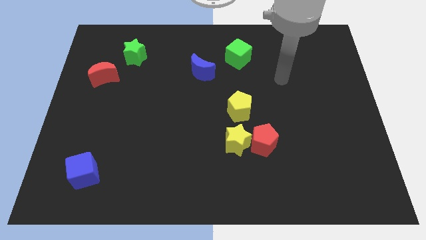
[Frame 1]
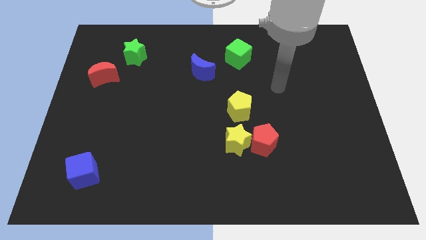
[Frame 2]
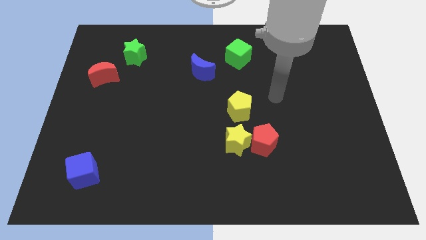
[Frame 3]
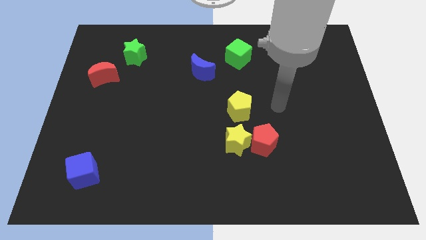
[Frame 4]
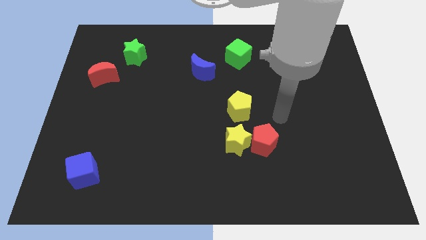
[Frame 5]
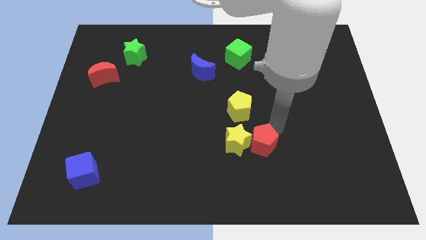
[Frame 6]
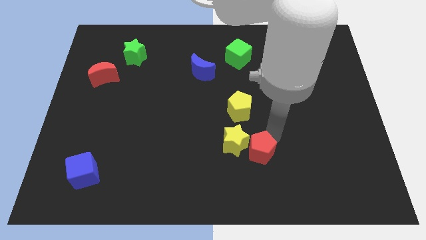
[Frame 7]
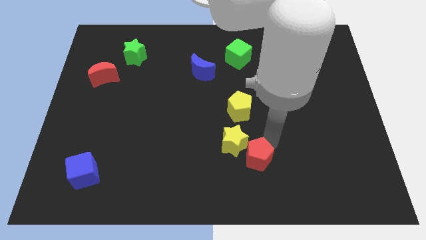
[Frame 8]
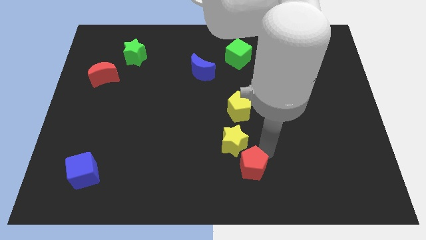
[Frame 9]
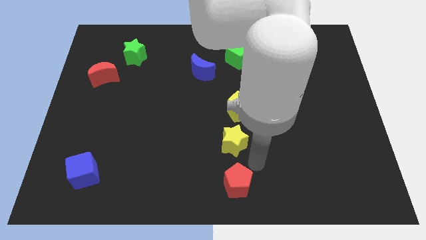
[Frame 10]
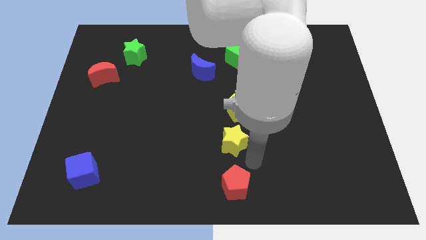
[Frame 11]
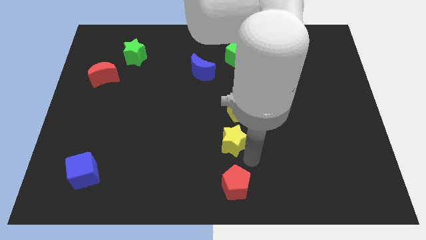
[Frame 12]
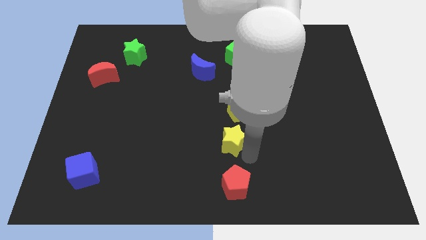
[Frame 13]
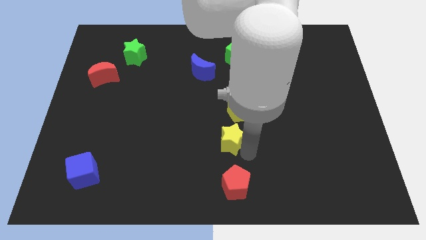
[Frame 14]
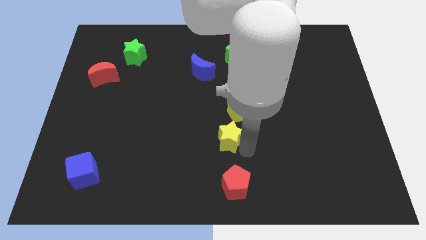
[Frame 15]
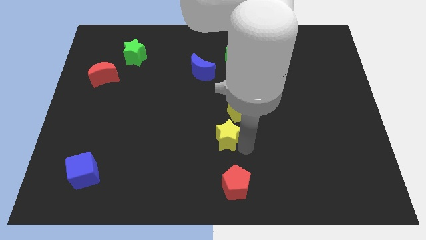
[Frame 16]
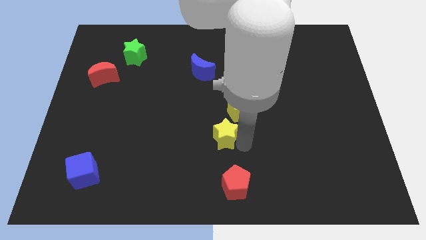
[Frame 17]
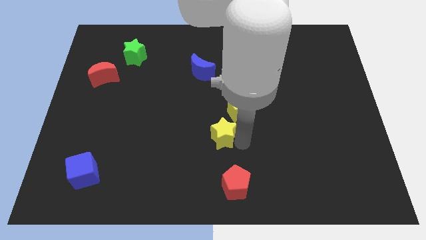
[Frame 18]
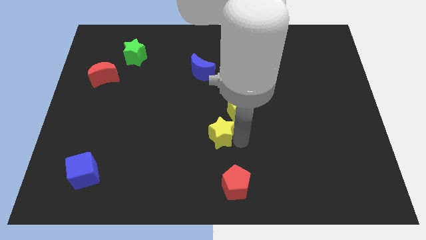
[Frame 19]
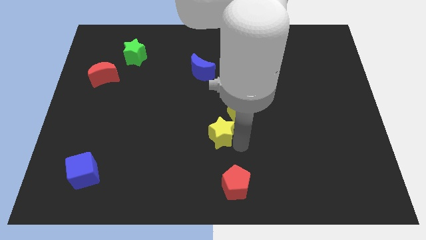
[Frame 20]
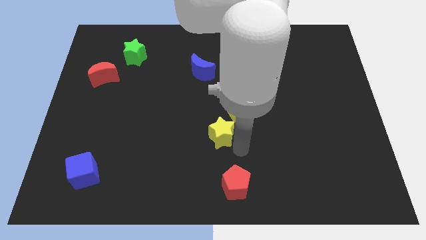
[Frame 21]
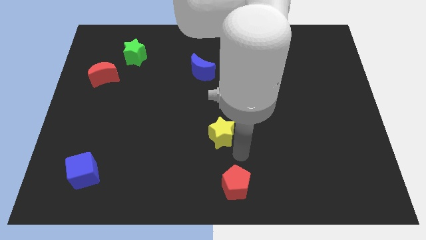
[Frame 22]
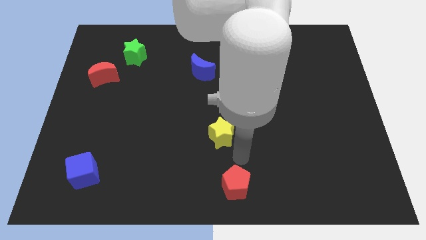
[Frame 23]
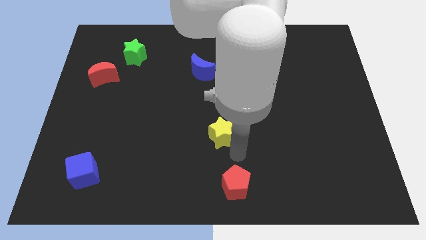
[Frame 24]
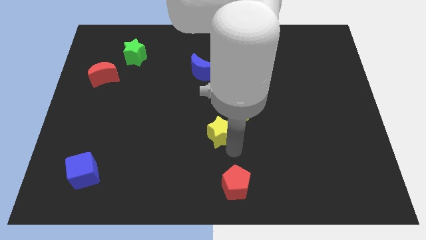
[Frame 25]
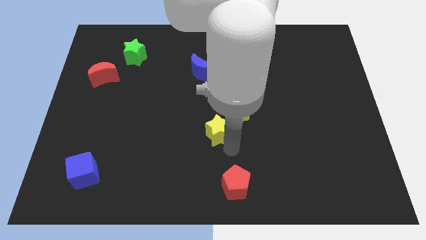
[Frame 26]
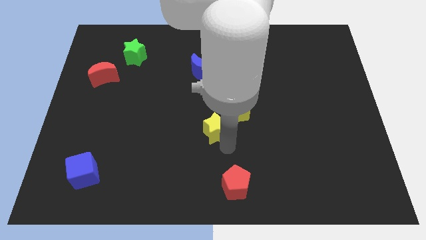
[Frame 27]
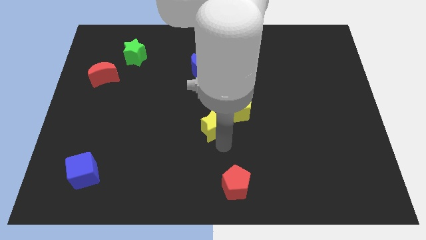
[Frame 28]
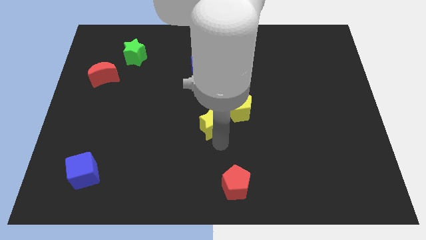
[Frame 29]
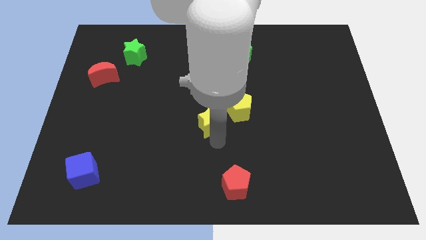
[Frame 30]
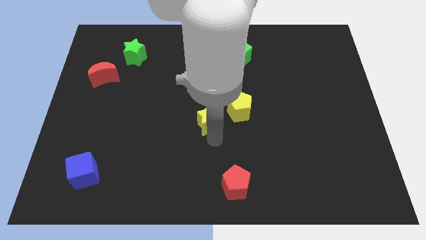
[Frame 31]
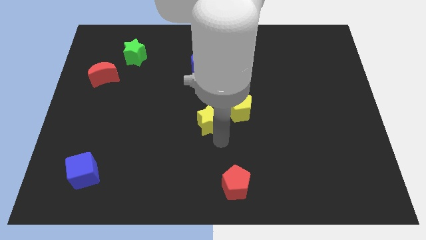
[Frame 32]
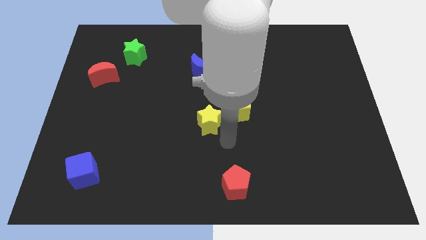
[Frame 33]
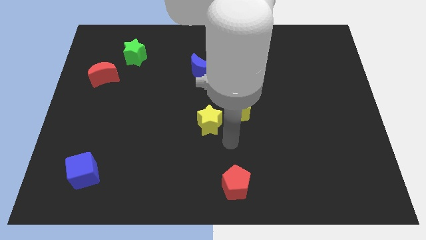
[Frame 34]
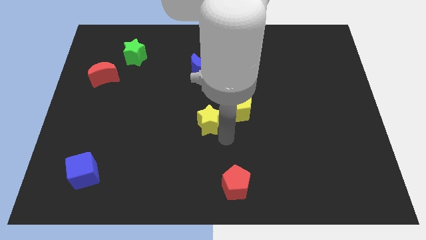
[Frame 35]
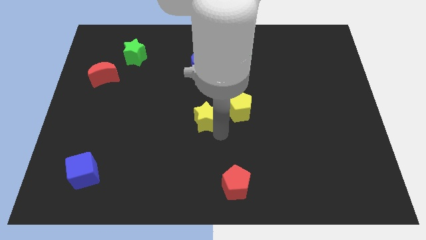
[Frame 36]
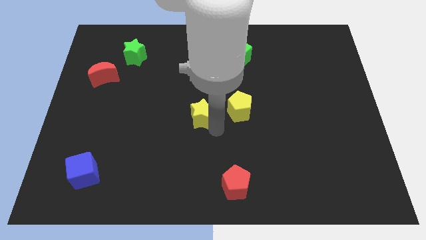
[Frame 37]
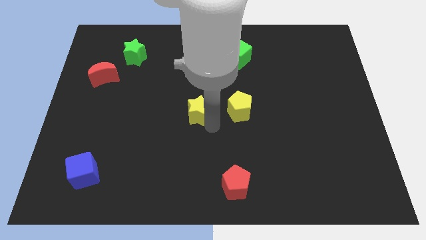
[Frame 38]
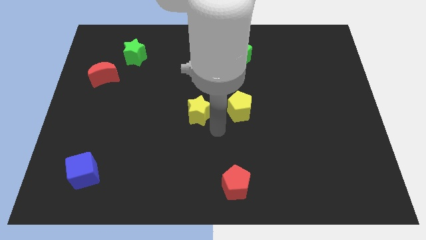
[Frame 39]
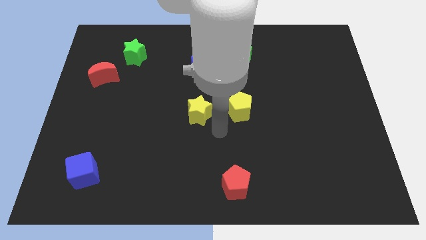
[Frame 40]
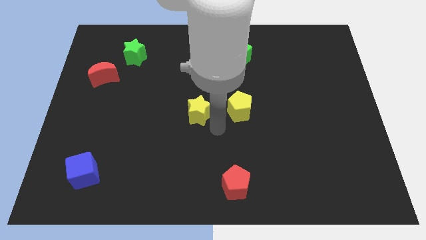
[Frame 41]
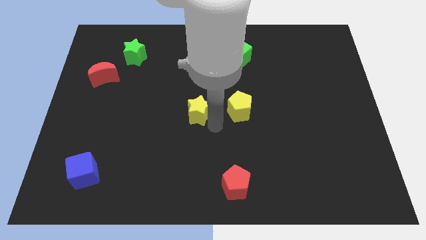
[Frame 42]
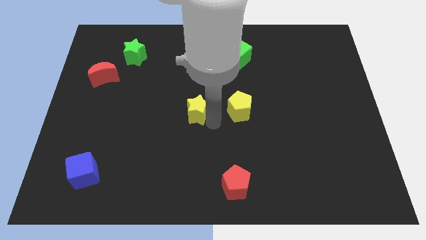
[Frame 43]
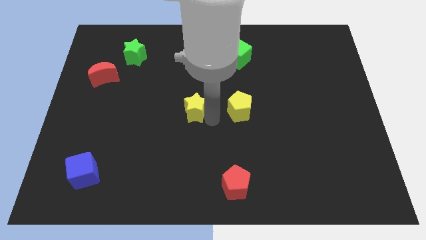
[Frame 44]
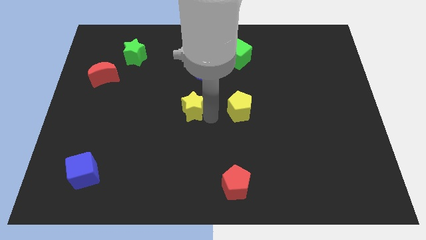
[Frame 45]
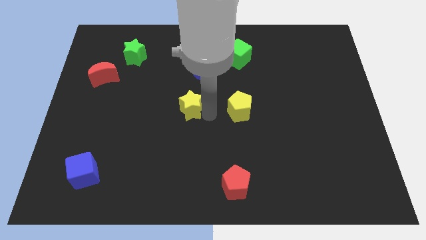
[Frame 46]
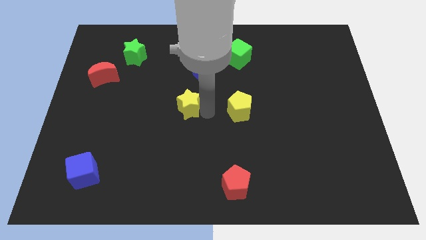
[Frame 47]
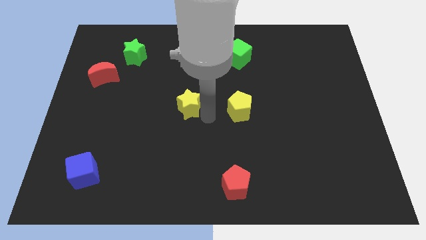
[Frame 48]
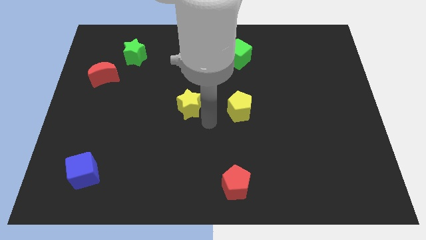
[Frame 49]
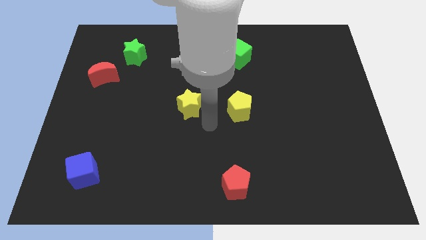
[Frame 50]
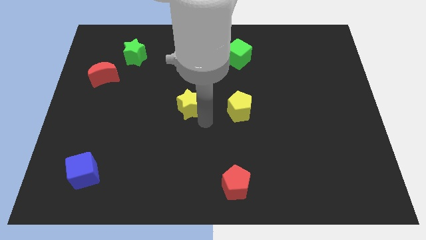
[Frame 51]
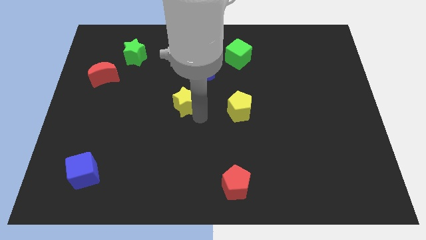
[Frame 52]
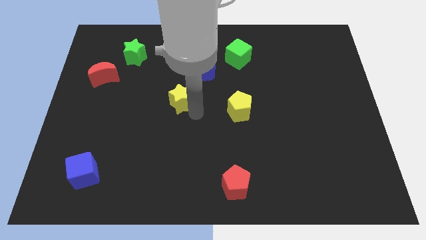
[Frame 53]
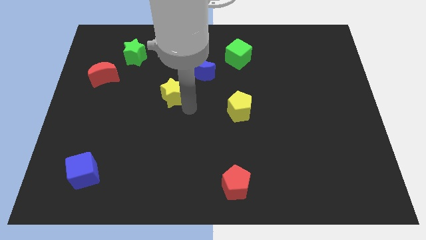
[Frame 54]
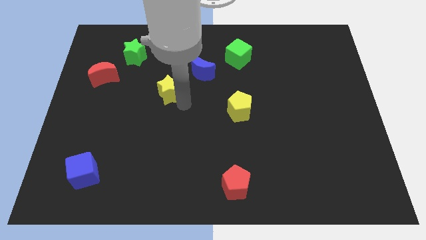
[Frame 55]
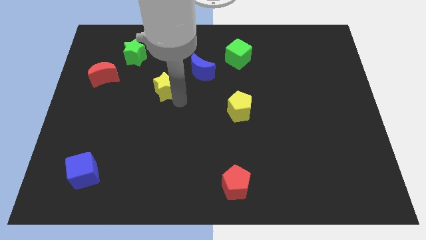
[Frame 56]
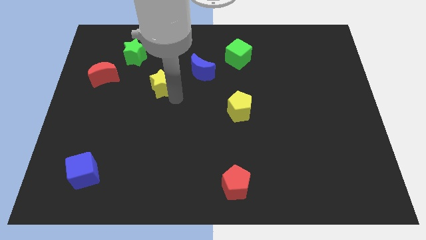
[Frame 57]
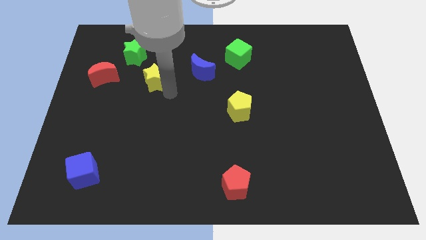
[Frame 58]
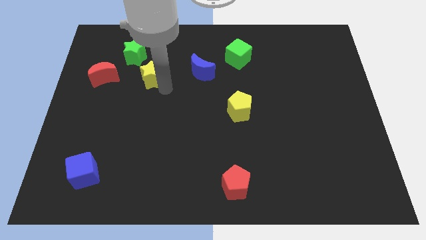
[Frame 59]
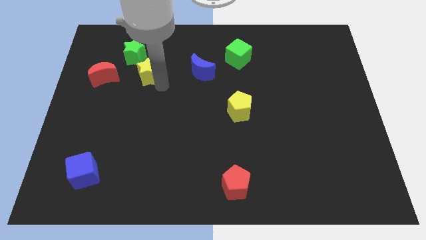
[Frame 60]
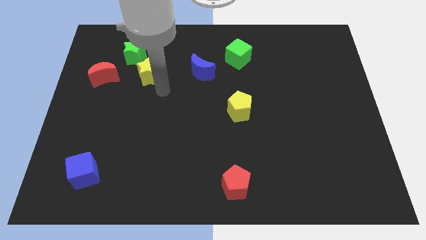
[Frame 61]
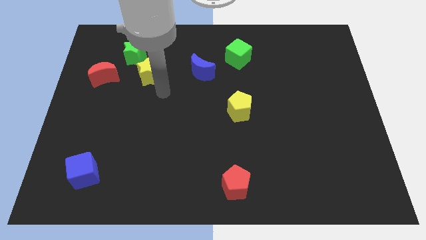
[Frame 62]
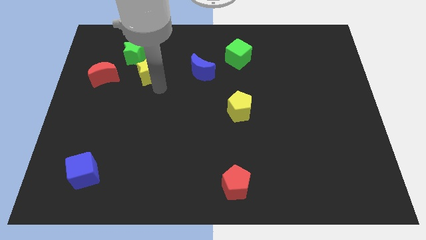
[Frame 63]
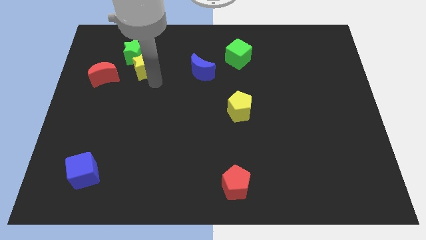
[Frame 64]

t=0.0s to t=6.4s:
slide the yellow star towards the green star
